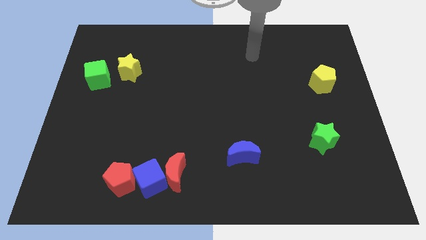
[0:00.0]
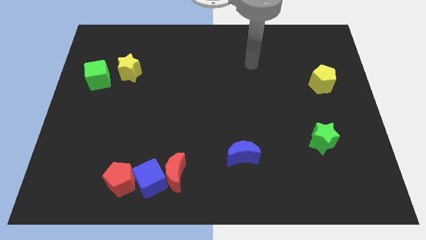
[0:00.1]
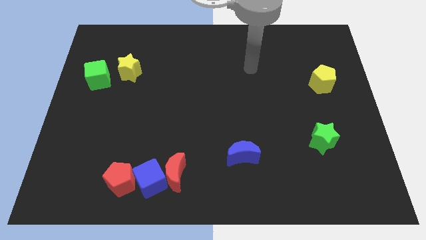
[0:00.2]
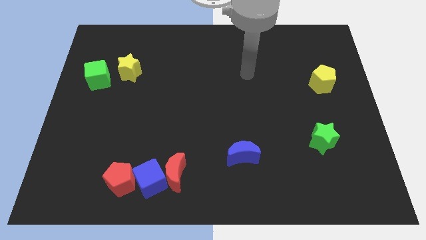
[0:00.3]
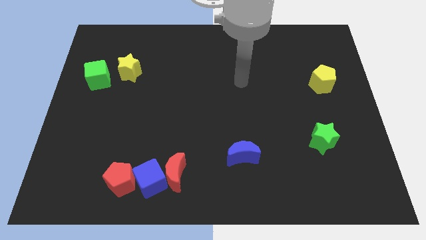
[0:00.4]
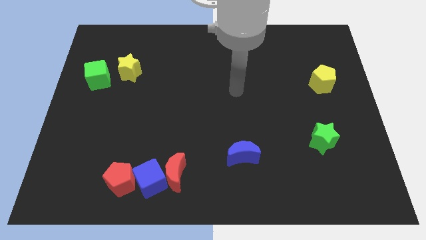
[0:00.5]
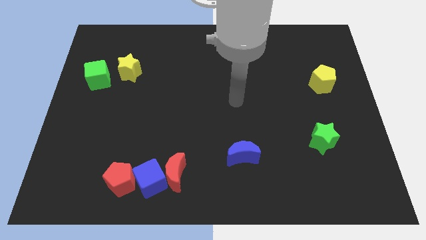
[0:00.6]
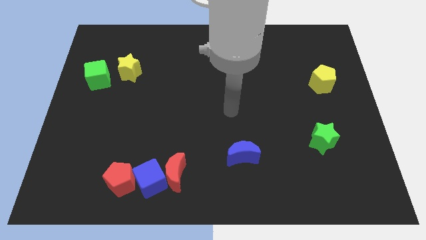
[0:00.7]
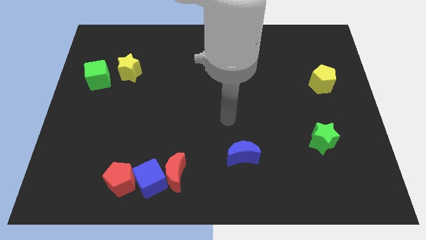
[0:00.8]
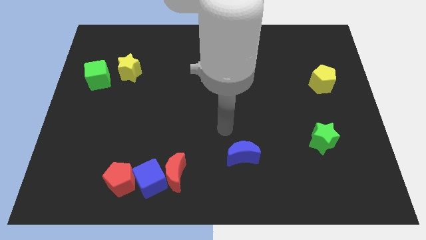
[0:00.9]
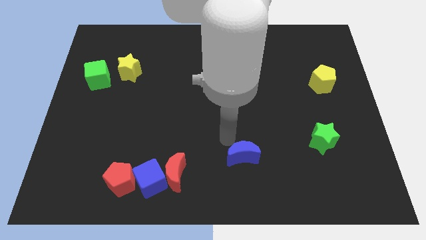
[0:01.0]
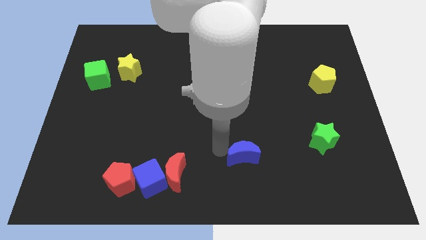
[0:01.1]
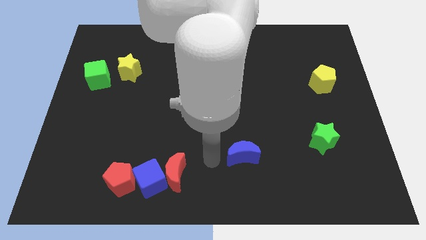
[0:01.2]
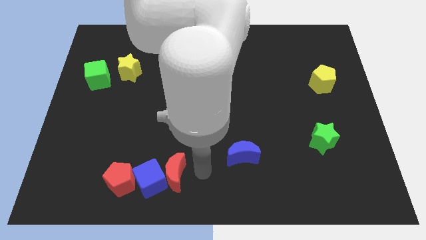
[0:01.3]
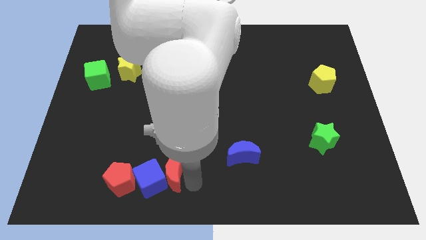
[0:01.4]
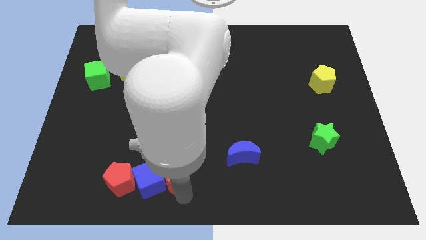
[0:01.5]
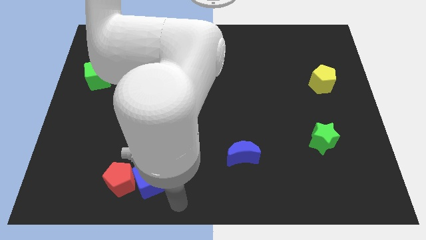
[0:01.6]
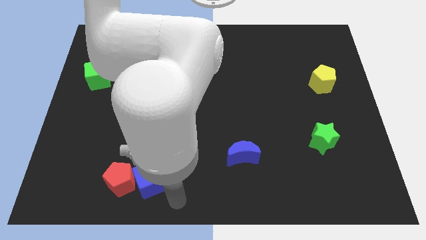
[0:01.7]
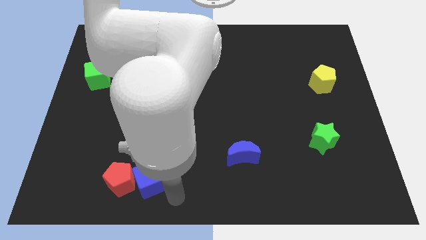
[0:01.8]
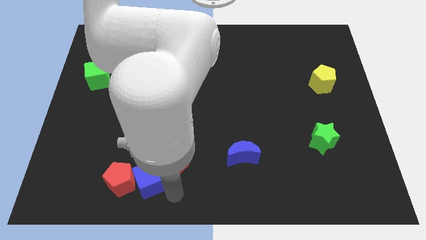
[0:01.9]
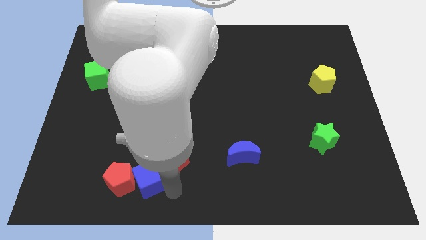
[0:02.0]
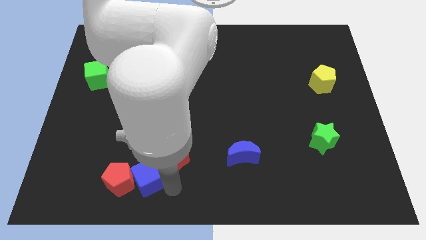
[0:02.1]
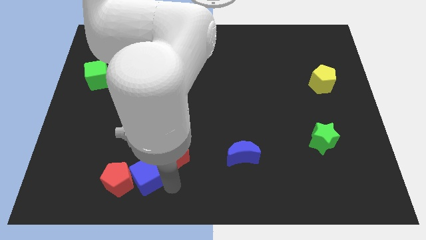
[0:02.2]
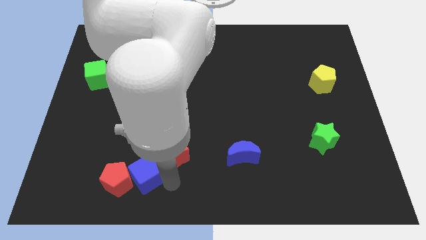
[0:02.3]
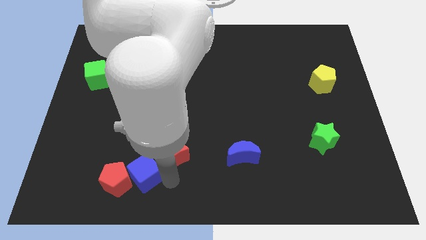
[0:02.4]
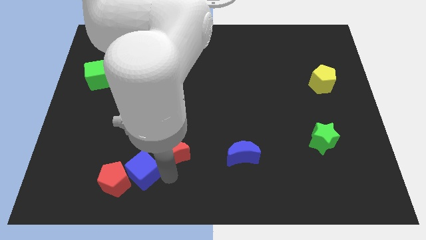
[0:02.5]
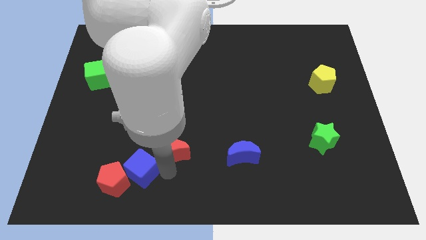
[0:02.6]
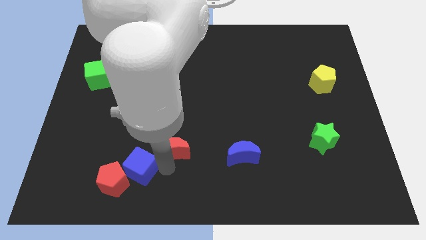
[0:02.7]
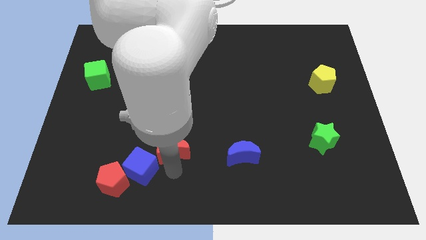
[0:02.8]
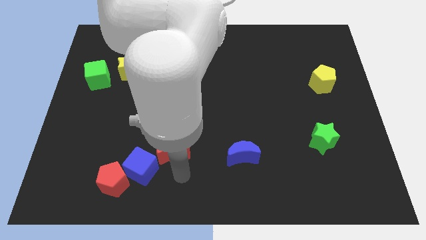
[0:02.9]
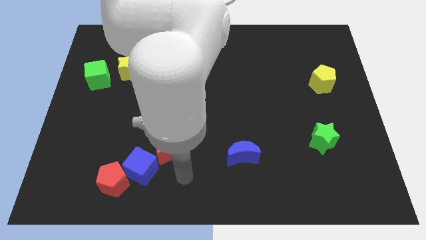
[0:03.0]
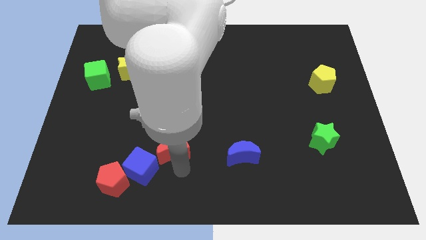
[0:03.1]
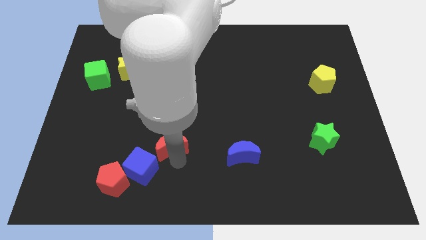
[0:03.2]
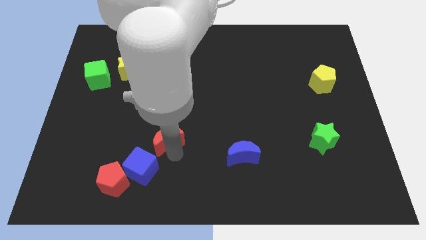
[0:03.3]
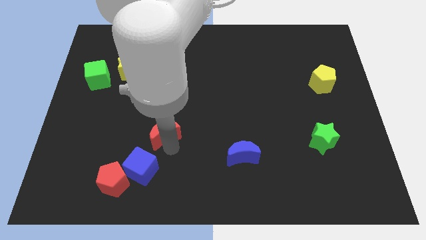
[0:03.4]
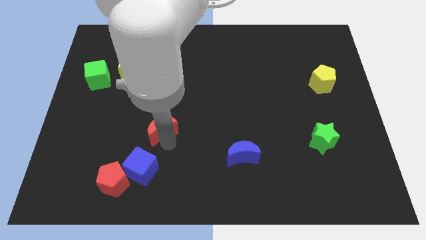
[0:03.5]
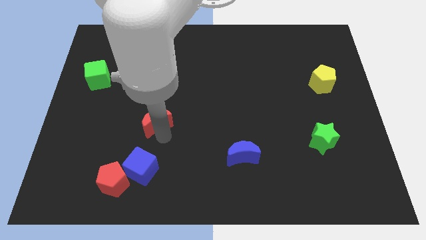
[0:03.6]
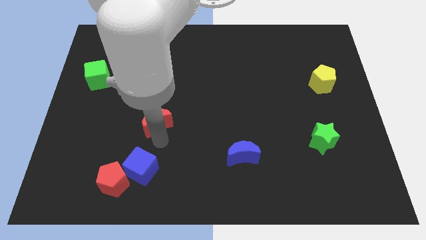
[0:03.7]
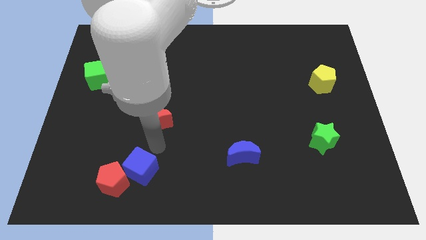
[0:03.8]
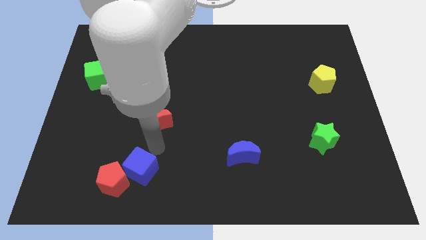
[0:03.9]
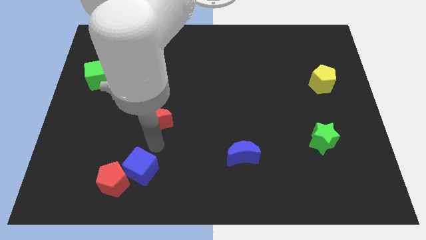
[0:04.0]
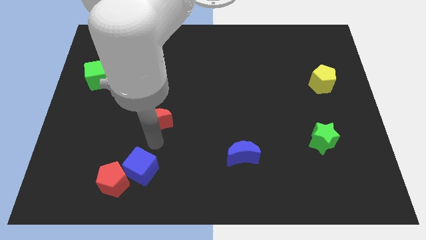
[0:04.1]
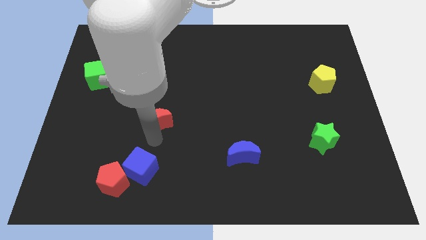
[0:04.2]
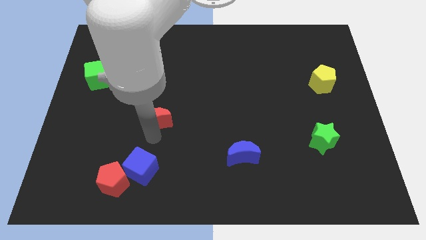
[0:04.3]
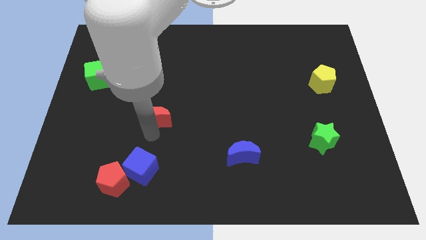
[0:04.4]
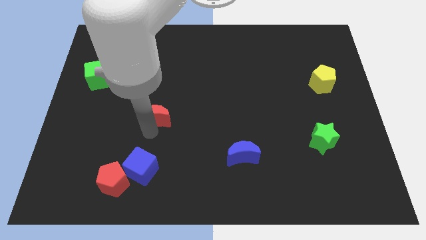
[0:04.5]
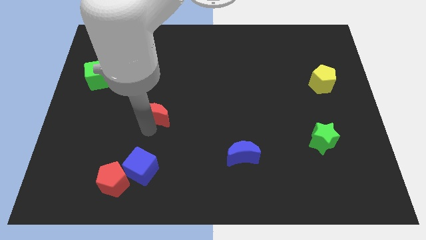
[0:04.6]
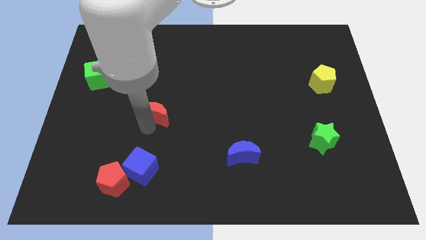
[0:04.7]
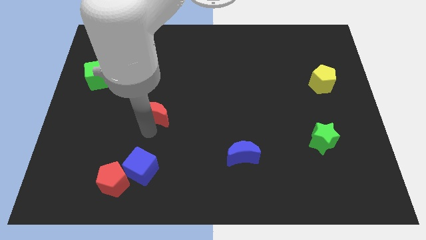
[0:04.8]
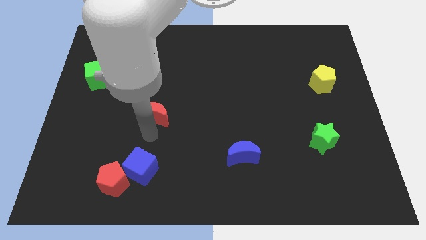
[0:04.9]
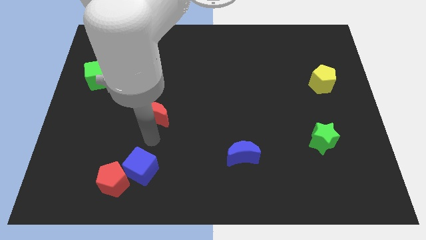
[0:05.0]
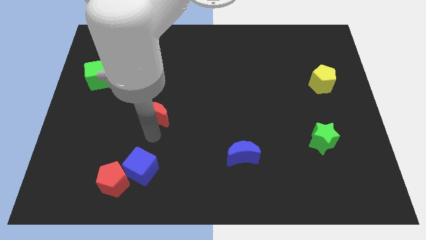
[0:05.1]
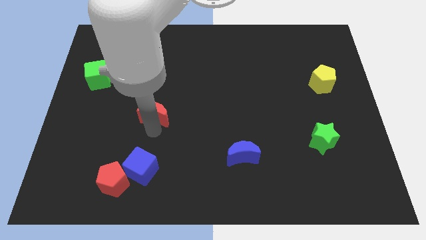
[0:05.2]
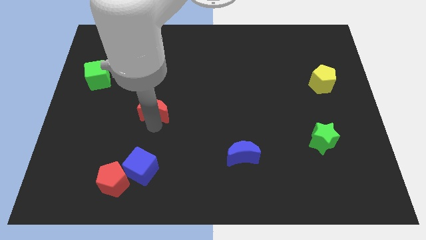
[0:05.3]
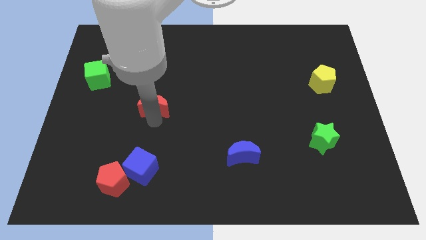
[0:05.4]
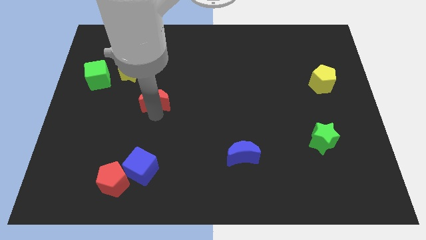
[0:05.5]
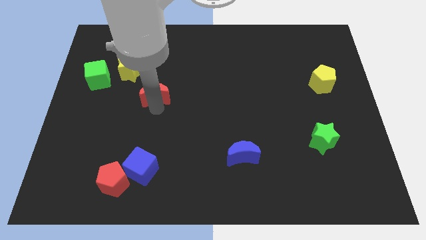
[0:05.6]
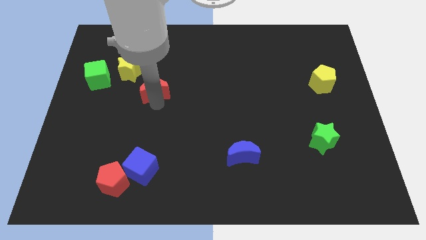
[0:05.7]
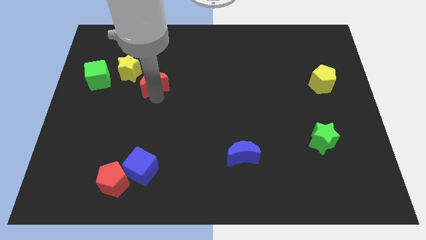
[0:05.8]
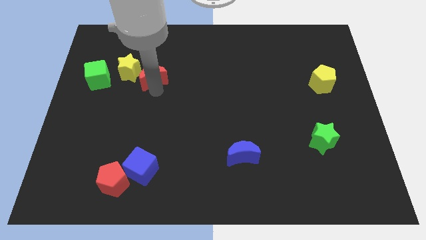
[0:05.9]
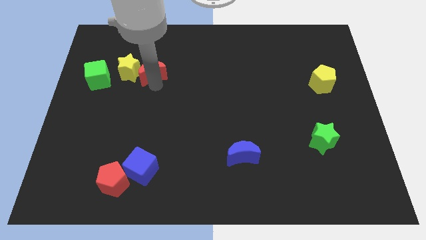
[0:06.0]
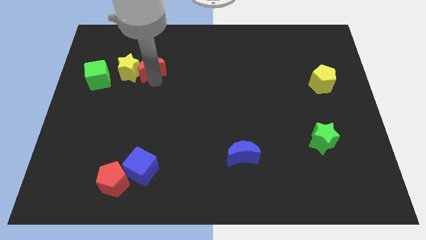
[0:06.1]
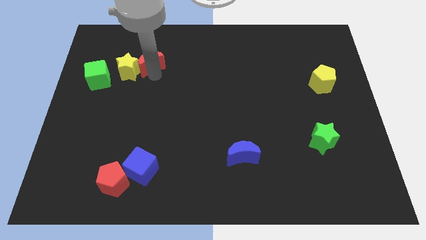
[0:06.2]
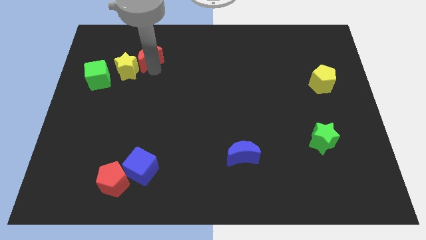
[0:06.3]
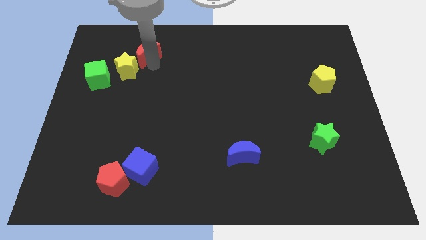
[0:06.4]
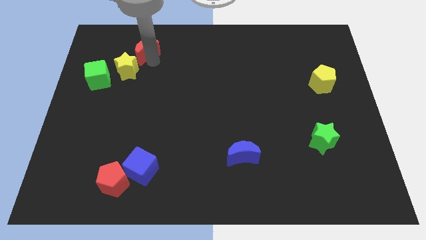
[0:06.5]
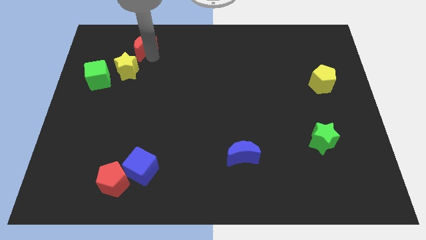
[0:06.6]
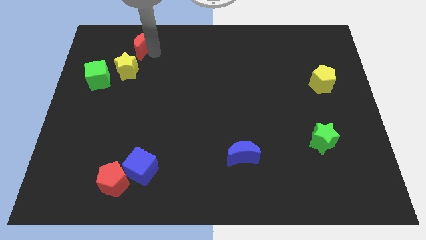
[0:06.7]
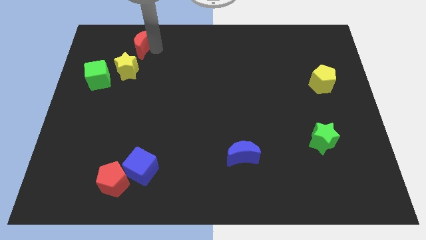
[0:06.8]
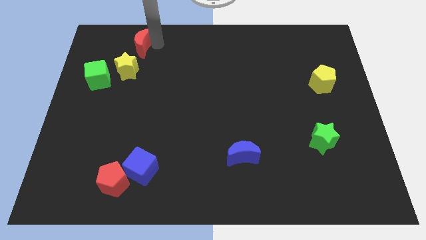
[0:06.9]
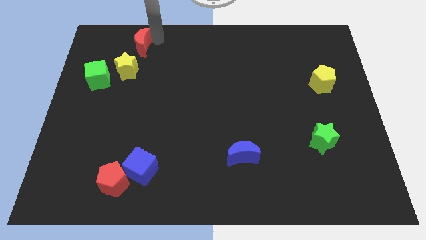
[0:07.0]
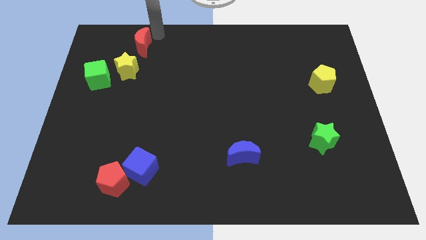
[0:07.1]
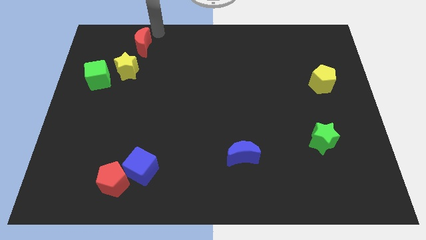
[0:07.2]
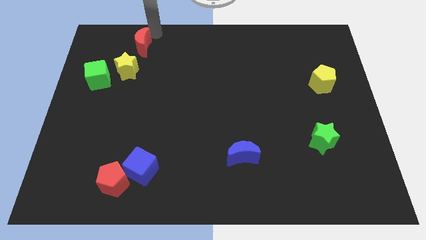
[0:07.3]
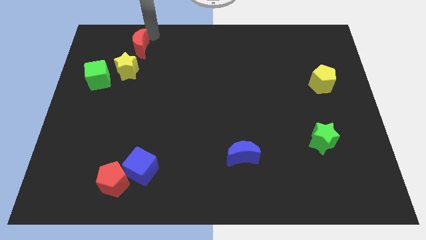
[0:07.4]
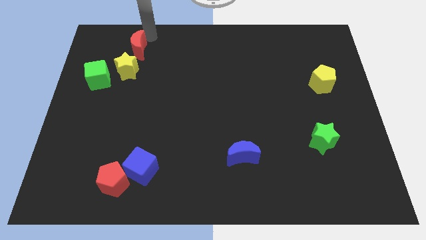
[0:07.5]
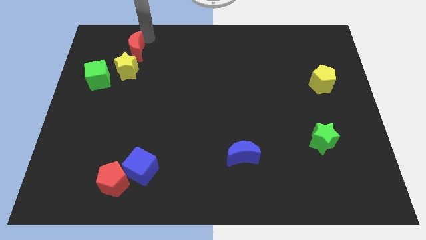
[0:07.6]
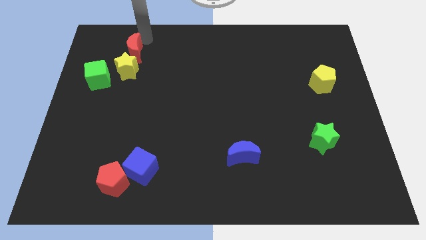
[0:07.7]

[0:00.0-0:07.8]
move the red moon to the top right side of the green cube
